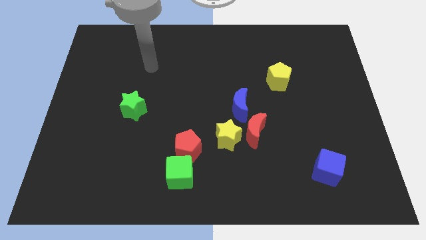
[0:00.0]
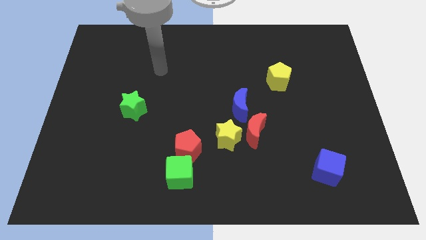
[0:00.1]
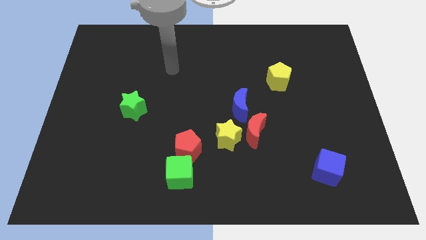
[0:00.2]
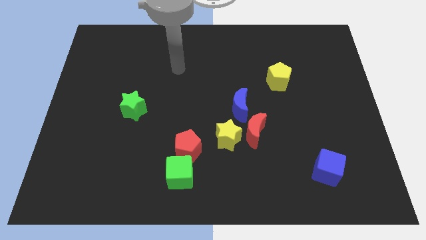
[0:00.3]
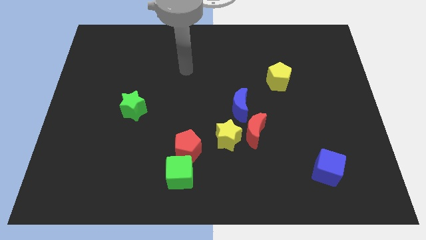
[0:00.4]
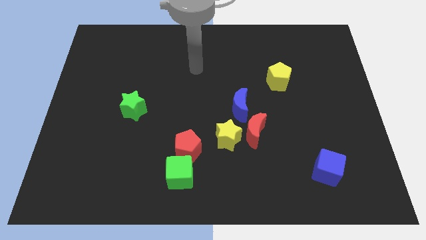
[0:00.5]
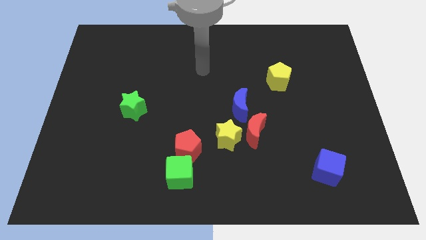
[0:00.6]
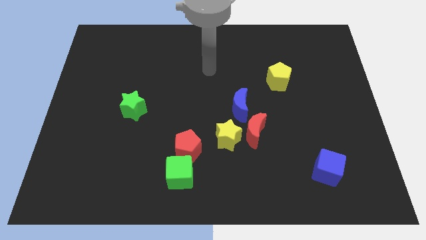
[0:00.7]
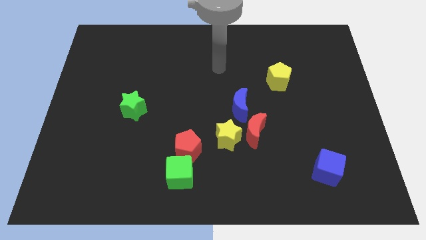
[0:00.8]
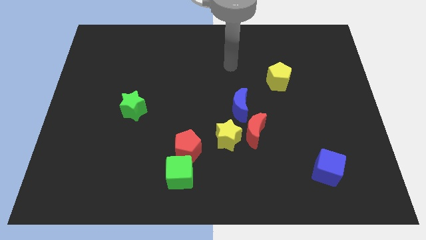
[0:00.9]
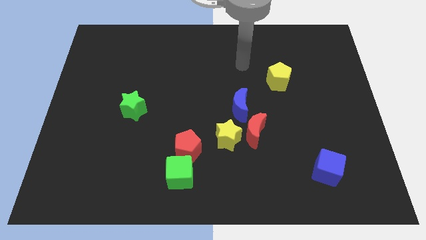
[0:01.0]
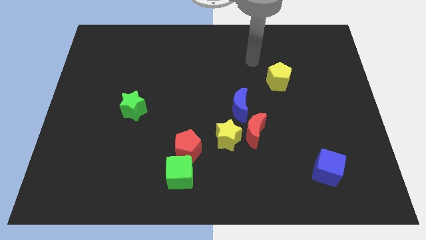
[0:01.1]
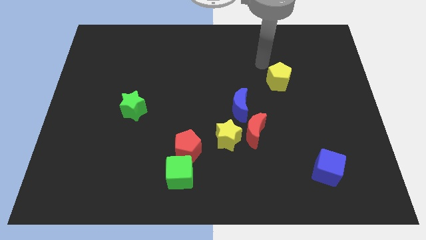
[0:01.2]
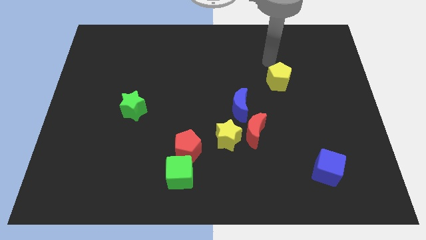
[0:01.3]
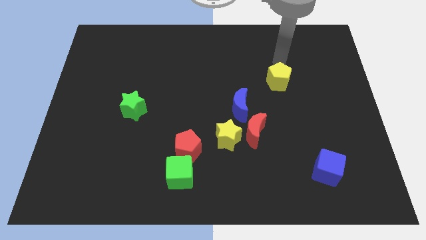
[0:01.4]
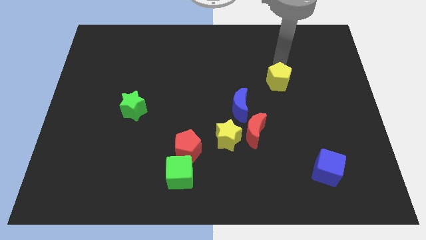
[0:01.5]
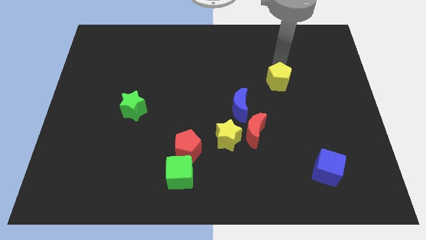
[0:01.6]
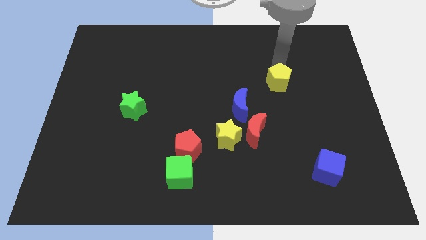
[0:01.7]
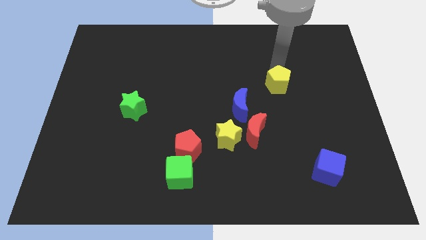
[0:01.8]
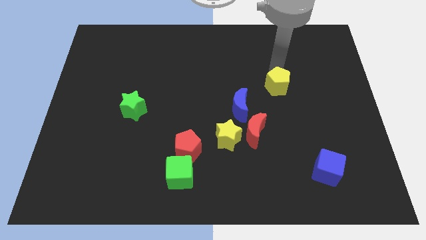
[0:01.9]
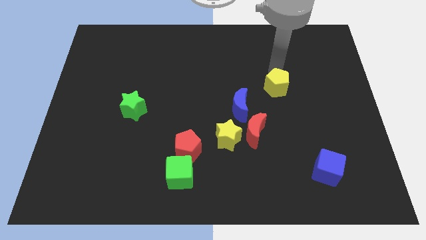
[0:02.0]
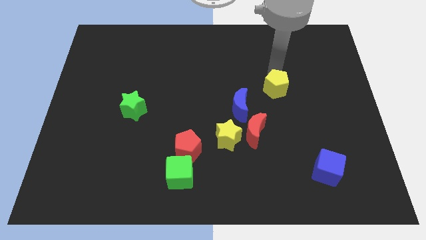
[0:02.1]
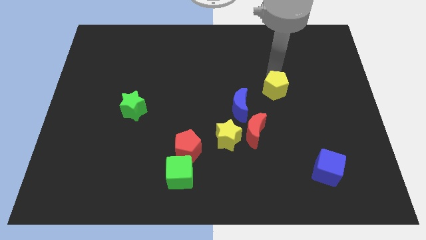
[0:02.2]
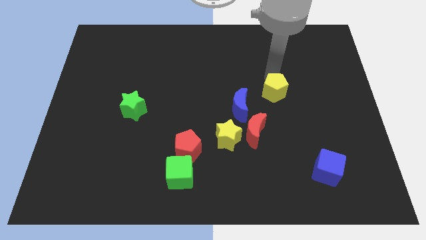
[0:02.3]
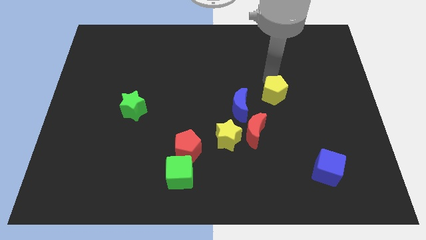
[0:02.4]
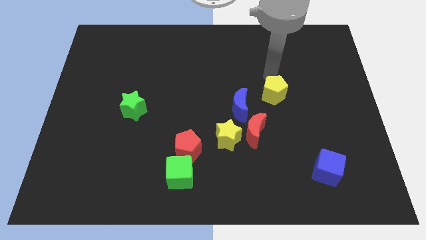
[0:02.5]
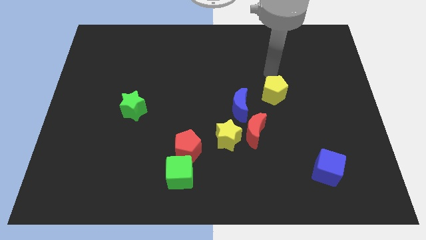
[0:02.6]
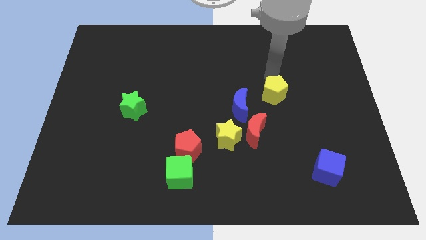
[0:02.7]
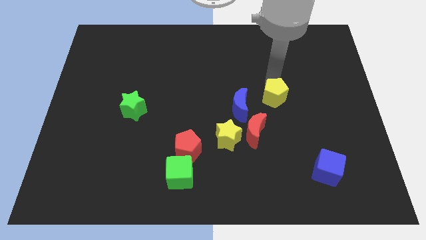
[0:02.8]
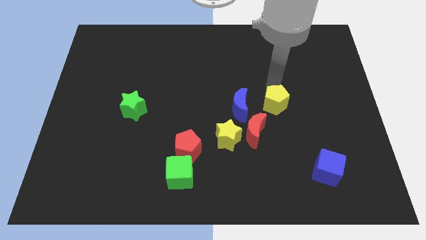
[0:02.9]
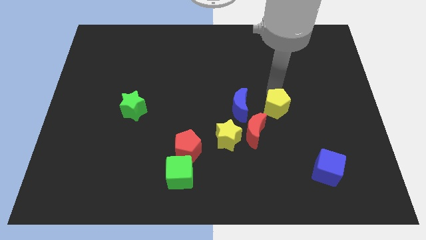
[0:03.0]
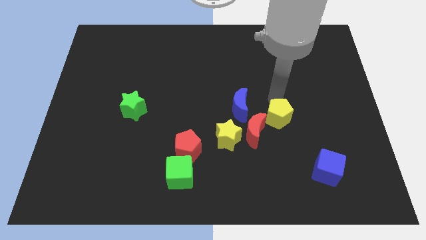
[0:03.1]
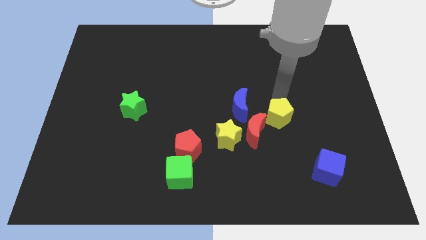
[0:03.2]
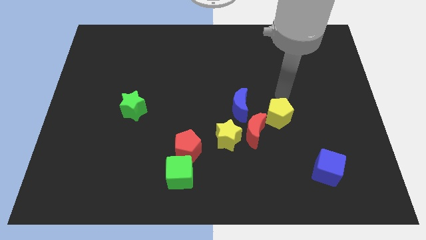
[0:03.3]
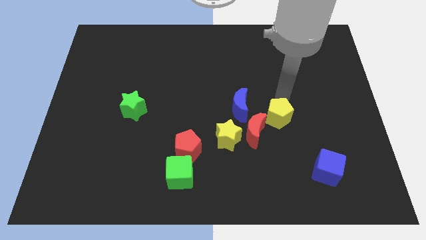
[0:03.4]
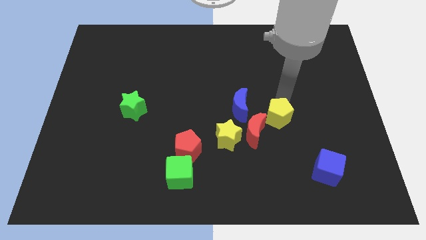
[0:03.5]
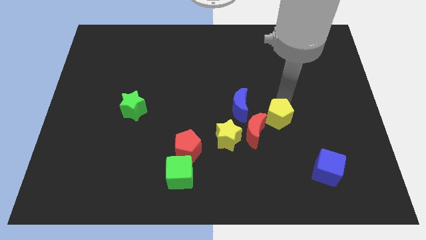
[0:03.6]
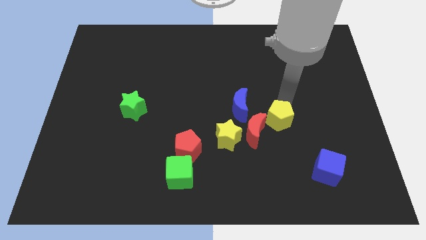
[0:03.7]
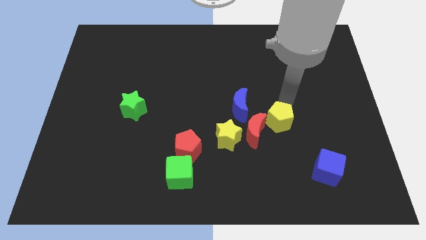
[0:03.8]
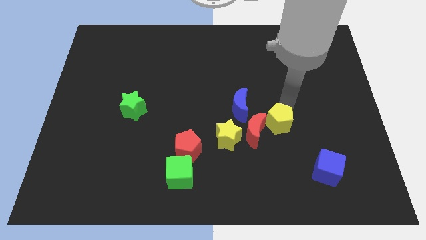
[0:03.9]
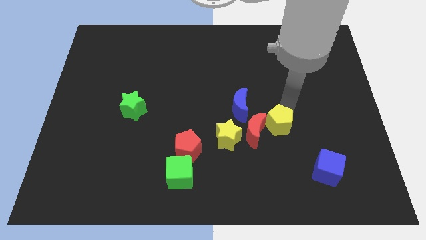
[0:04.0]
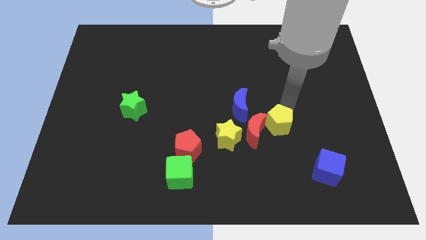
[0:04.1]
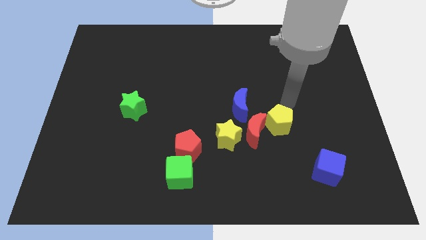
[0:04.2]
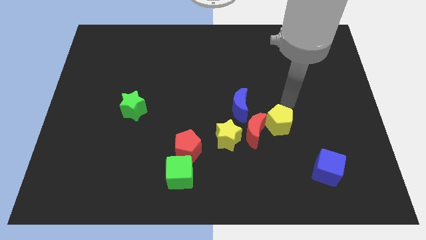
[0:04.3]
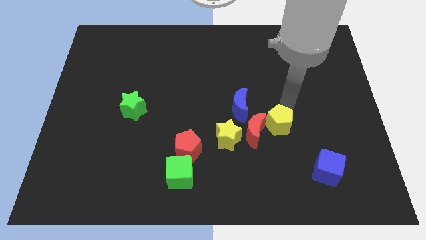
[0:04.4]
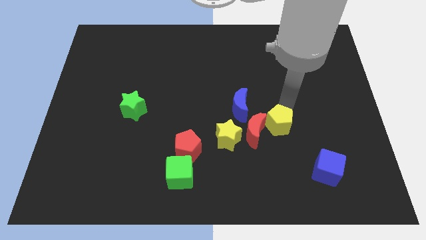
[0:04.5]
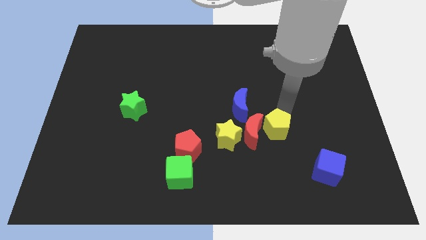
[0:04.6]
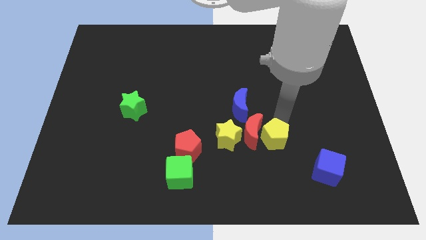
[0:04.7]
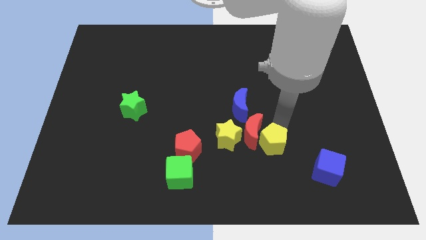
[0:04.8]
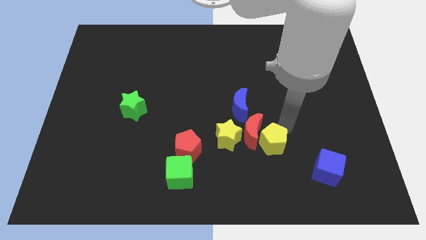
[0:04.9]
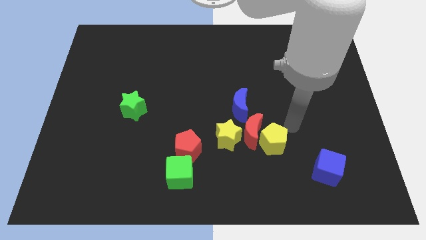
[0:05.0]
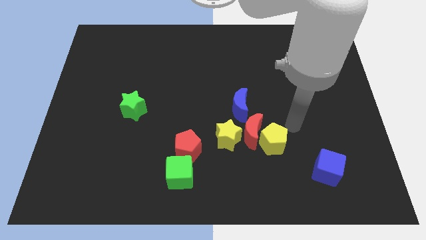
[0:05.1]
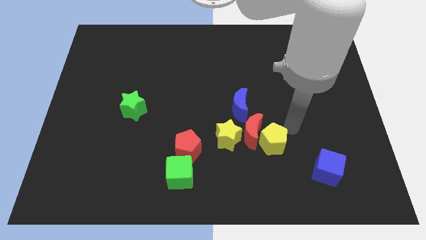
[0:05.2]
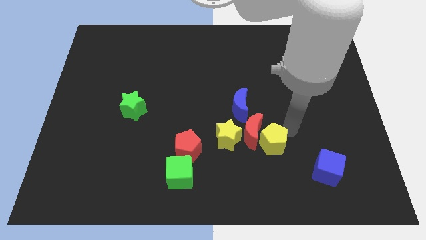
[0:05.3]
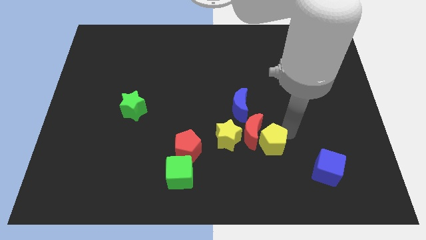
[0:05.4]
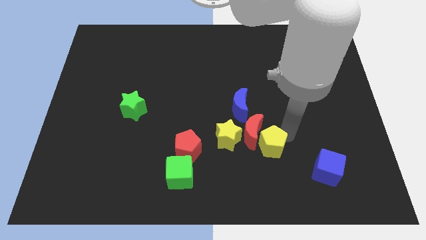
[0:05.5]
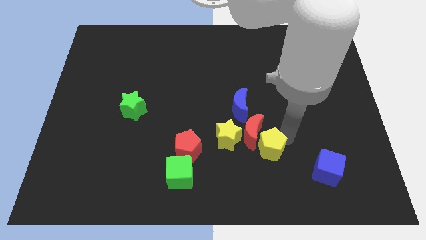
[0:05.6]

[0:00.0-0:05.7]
put the yellow pentagon to the bottom right side of the yellow star
